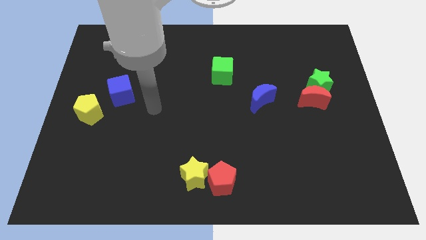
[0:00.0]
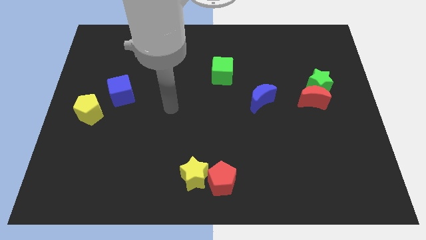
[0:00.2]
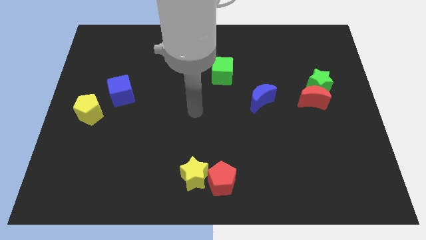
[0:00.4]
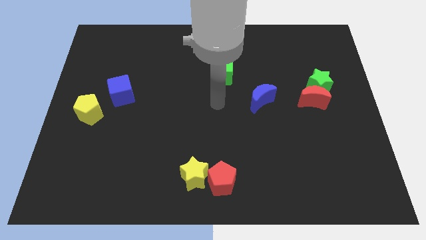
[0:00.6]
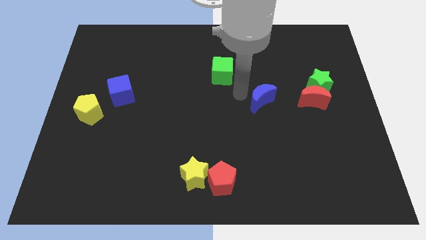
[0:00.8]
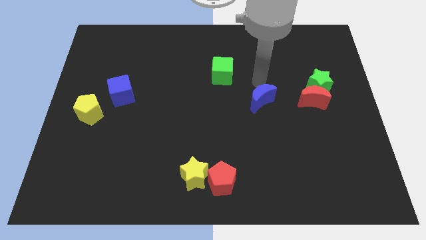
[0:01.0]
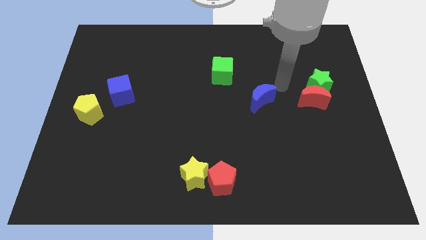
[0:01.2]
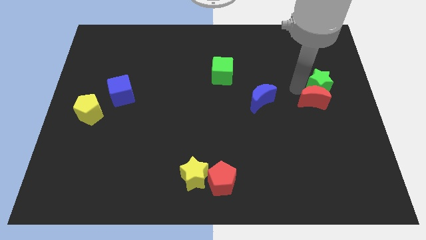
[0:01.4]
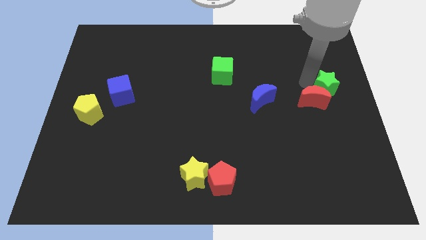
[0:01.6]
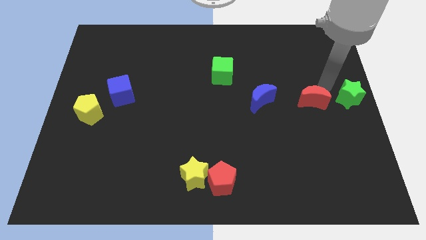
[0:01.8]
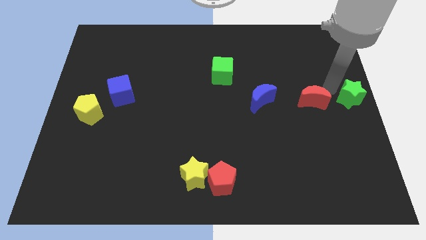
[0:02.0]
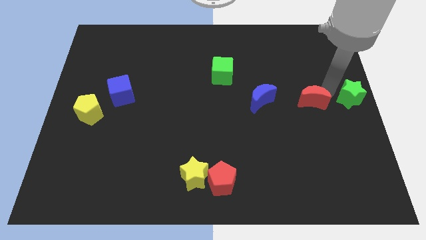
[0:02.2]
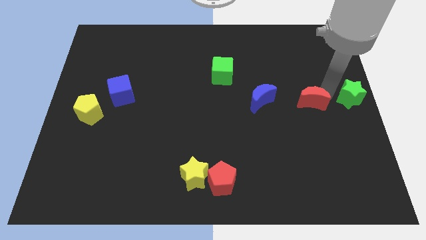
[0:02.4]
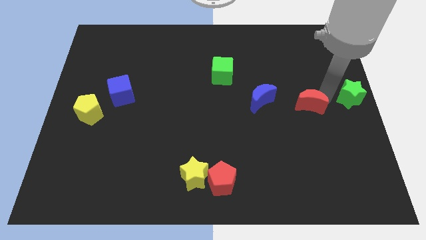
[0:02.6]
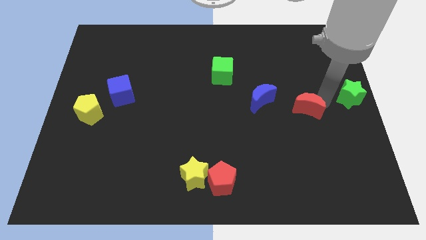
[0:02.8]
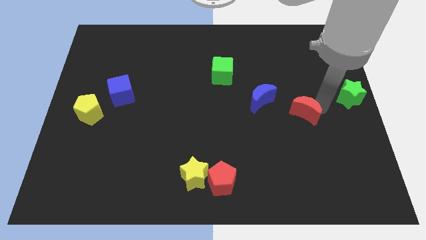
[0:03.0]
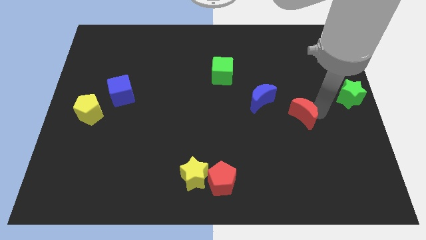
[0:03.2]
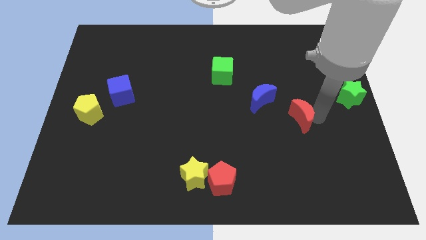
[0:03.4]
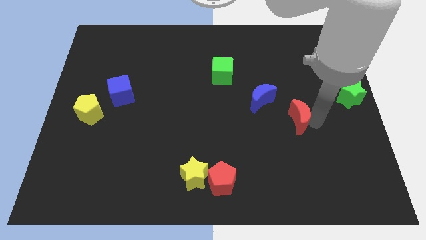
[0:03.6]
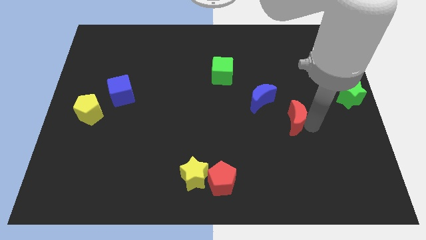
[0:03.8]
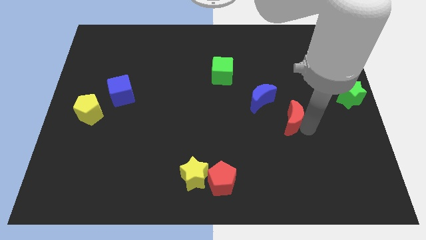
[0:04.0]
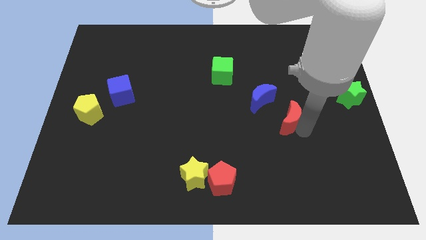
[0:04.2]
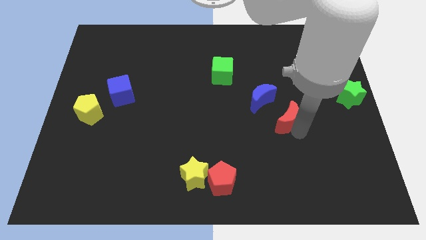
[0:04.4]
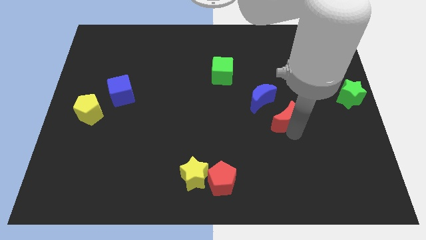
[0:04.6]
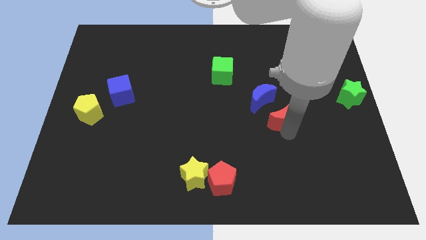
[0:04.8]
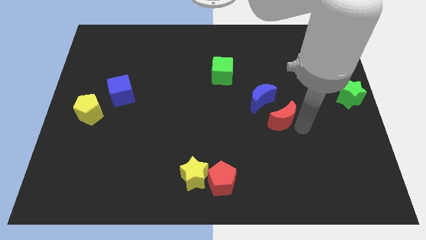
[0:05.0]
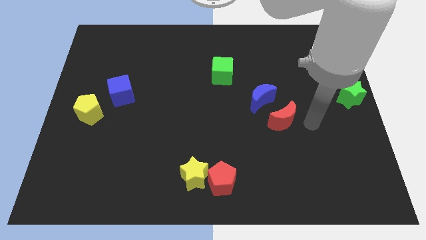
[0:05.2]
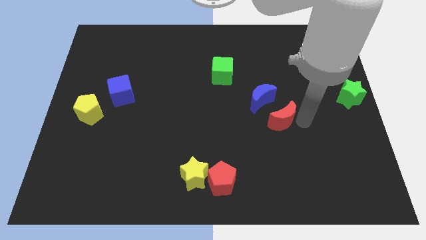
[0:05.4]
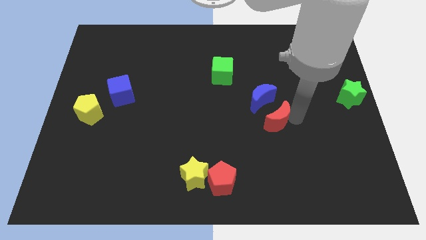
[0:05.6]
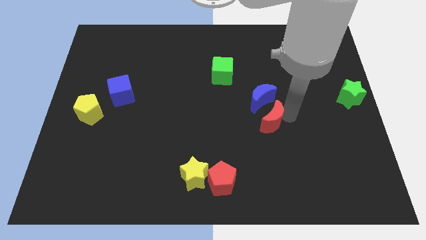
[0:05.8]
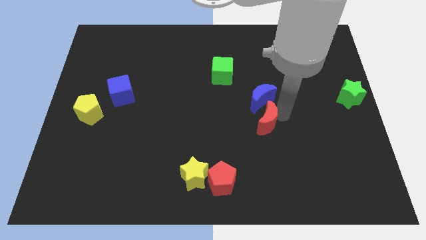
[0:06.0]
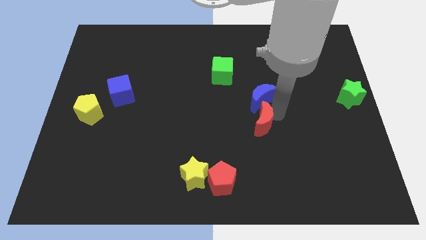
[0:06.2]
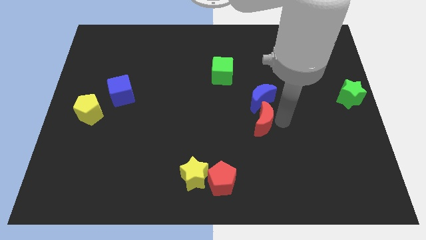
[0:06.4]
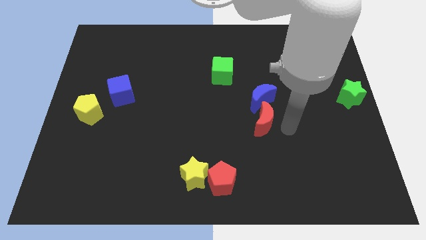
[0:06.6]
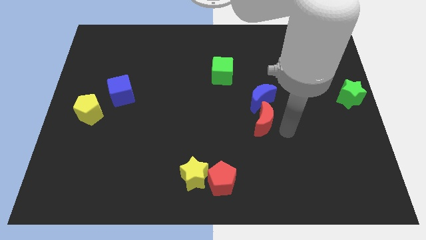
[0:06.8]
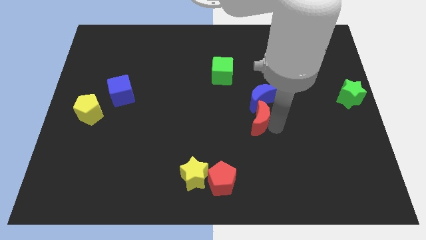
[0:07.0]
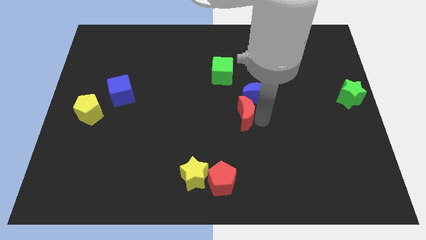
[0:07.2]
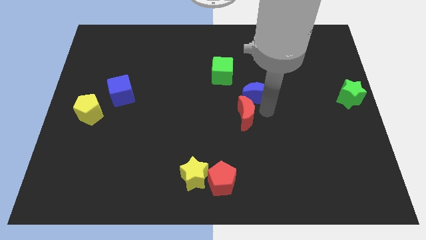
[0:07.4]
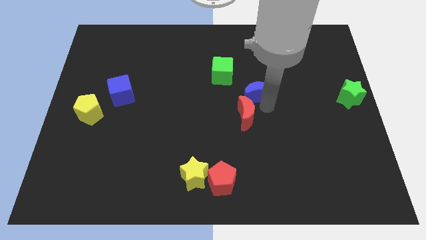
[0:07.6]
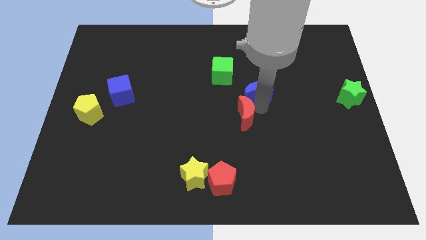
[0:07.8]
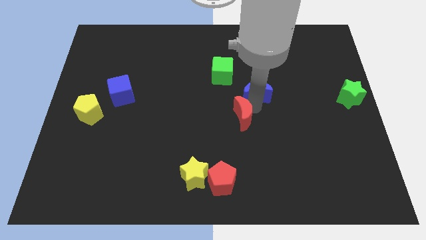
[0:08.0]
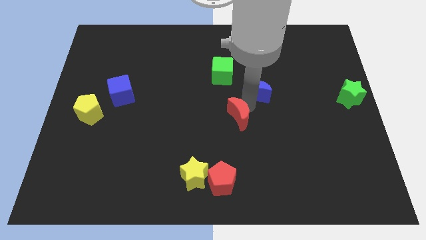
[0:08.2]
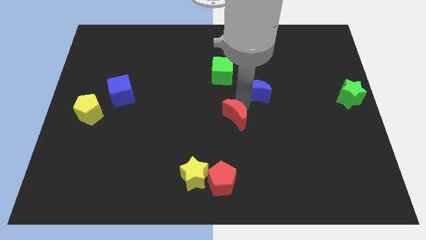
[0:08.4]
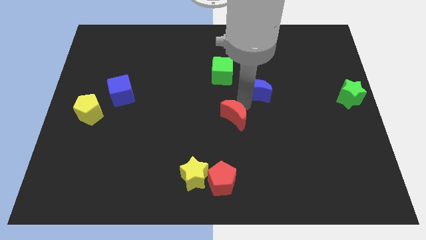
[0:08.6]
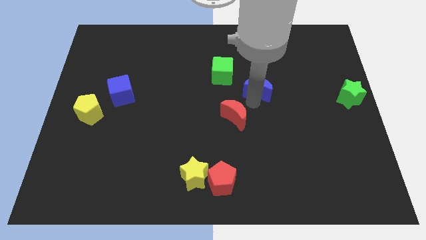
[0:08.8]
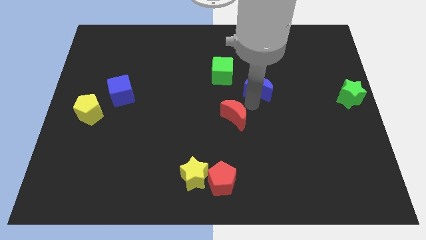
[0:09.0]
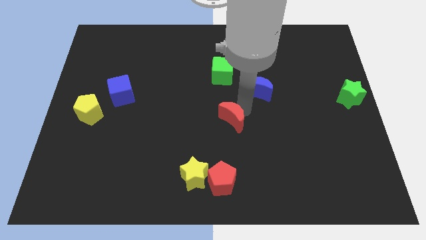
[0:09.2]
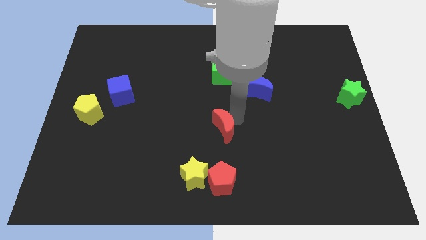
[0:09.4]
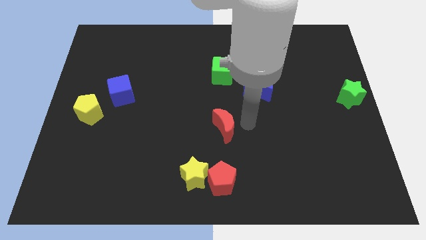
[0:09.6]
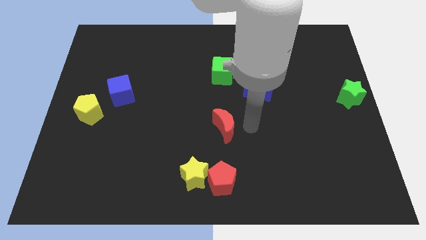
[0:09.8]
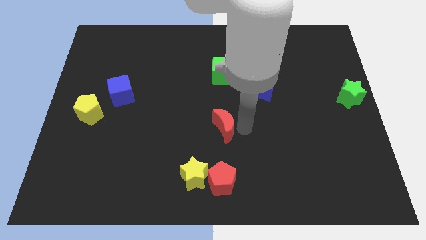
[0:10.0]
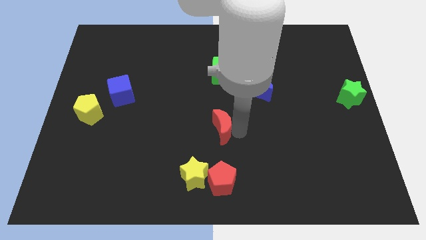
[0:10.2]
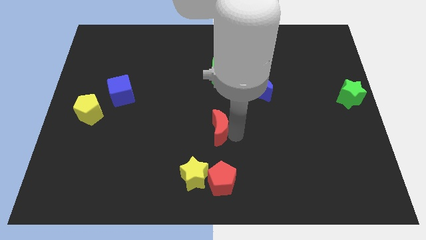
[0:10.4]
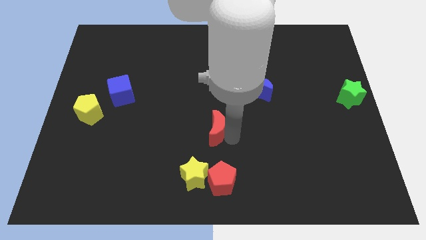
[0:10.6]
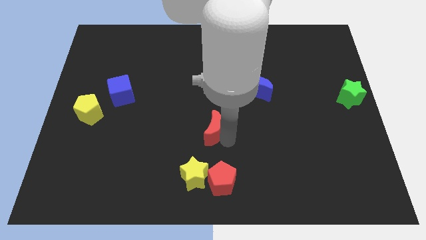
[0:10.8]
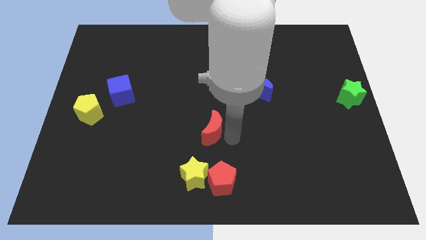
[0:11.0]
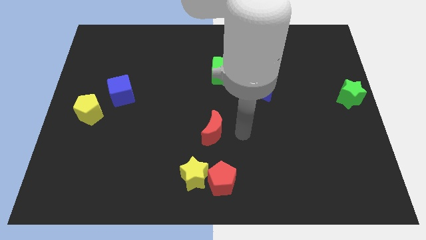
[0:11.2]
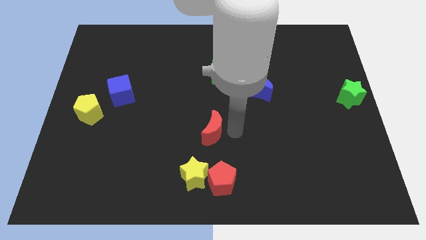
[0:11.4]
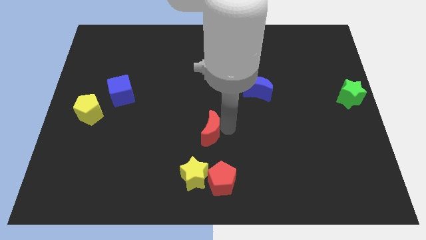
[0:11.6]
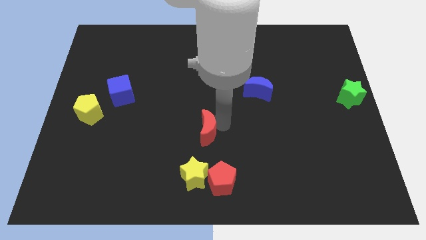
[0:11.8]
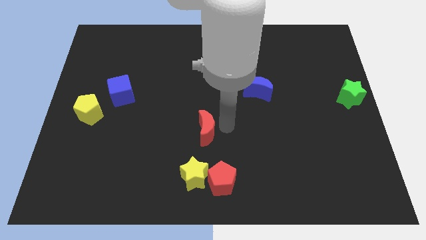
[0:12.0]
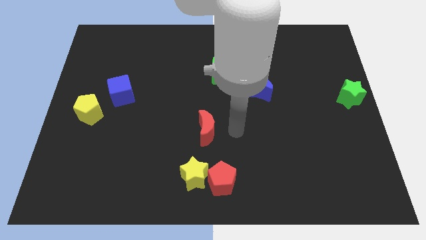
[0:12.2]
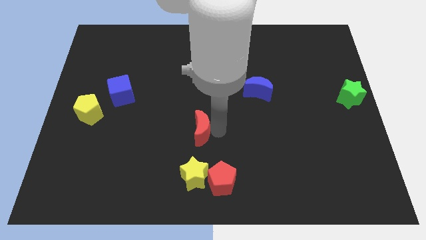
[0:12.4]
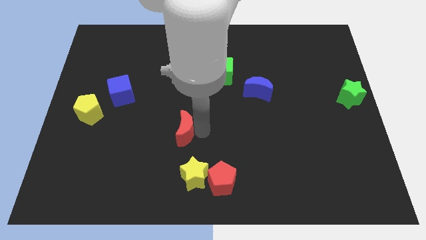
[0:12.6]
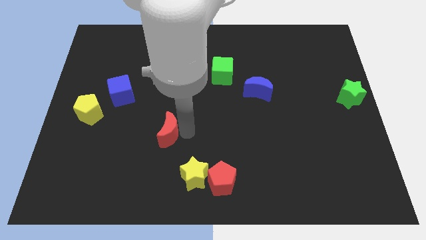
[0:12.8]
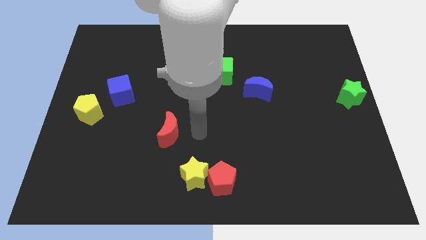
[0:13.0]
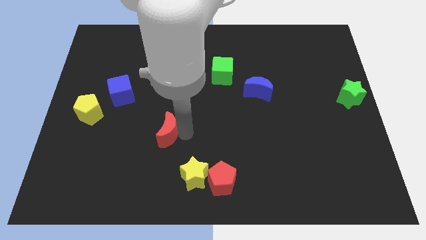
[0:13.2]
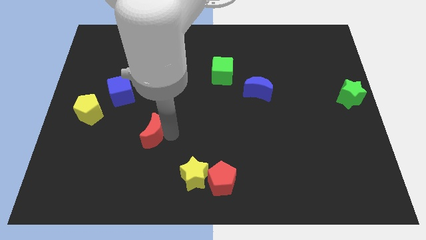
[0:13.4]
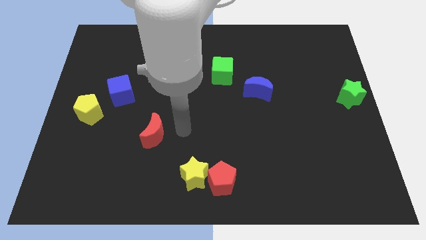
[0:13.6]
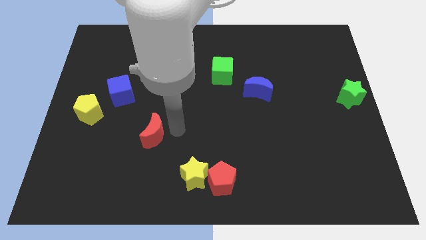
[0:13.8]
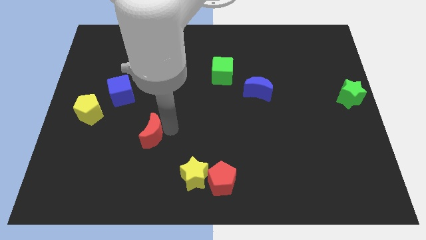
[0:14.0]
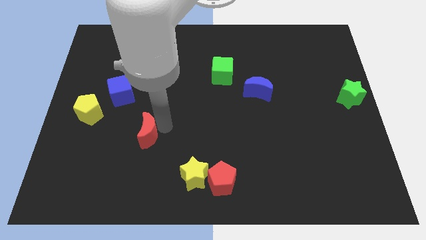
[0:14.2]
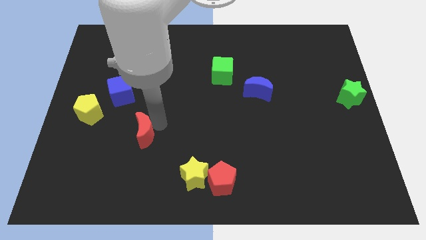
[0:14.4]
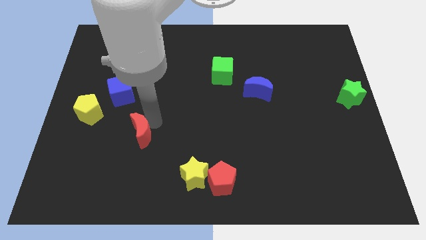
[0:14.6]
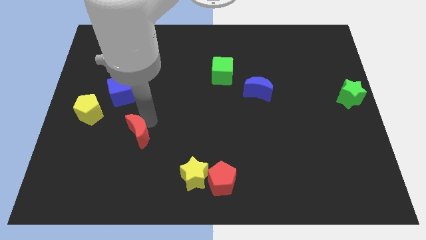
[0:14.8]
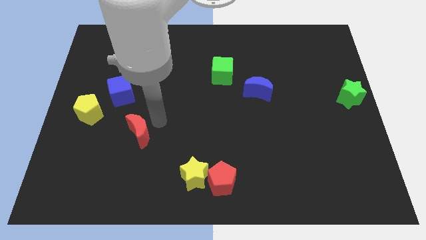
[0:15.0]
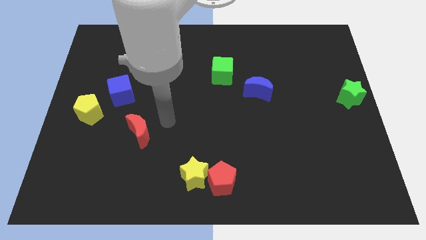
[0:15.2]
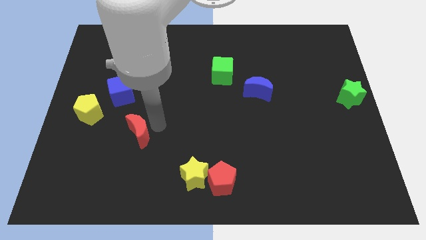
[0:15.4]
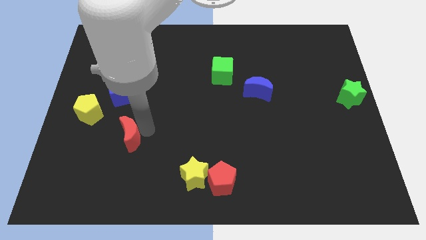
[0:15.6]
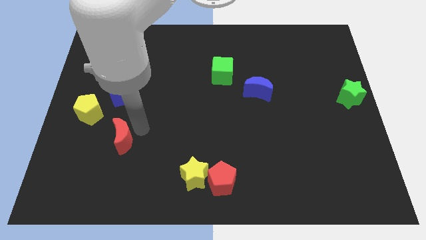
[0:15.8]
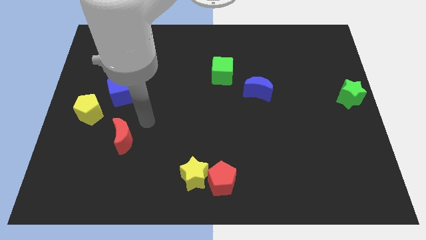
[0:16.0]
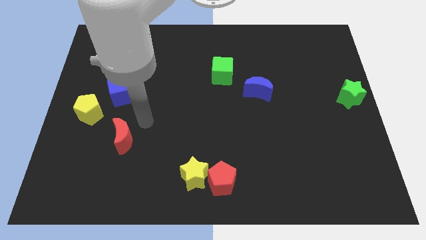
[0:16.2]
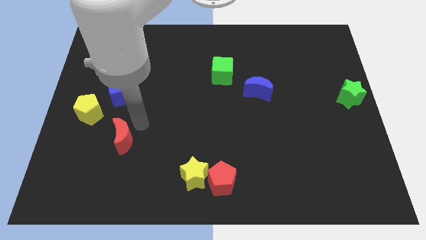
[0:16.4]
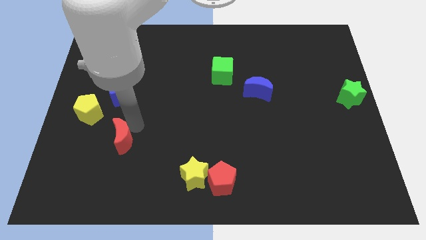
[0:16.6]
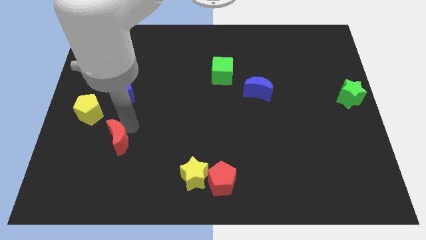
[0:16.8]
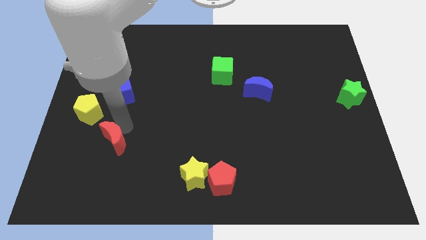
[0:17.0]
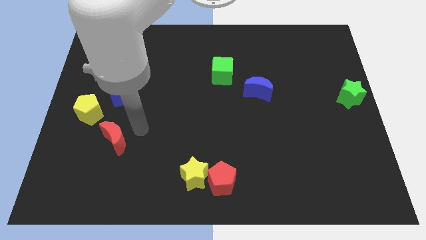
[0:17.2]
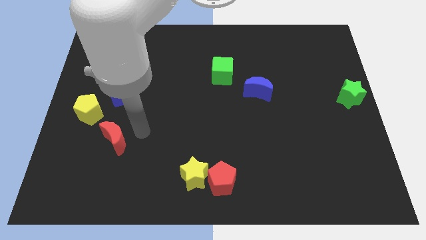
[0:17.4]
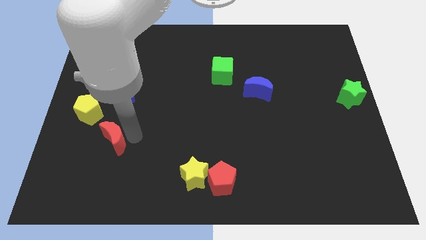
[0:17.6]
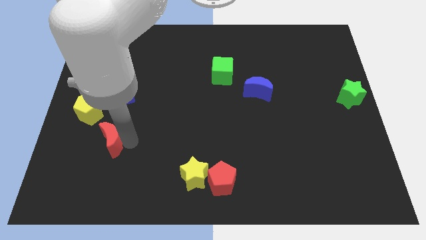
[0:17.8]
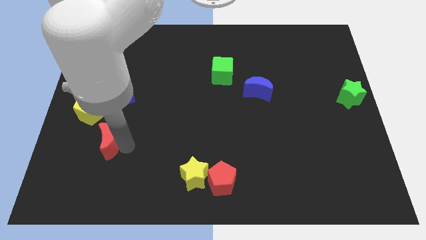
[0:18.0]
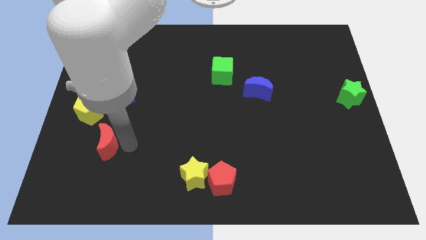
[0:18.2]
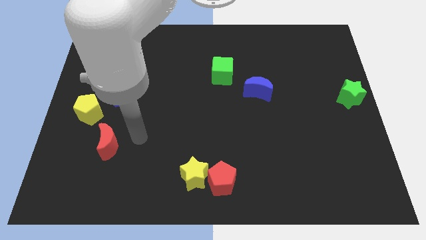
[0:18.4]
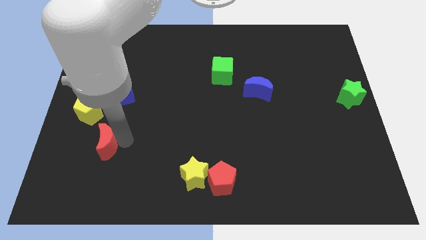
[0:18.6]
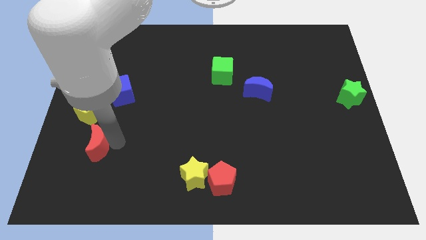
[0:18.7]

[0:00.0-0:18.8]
move the red moon to the bottom of the yellow pentagon
